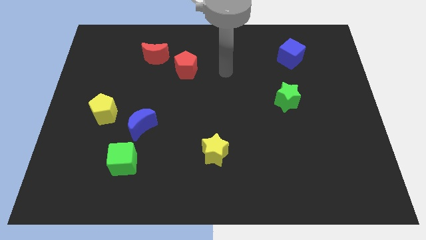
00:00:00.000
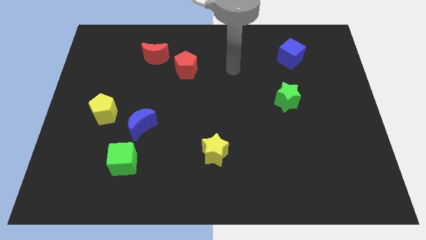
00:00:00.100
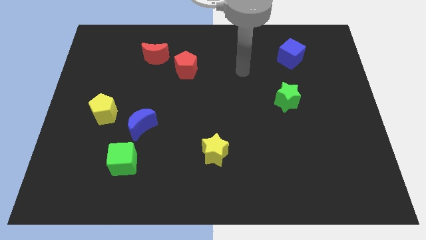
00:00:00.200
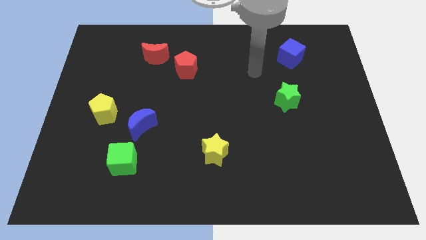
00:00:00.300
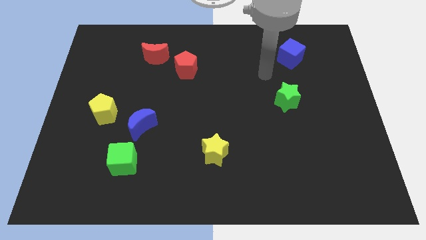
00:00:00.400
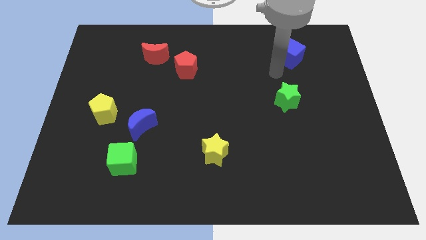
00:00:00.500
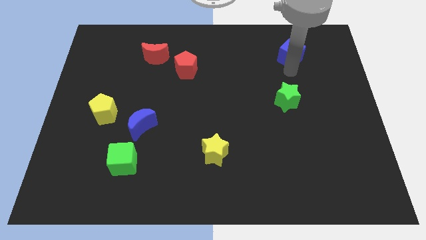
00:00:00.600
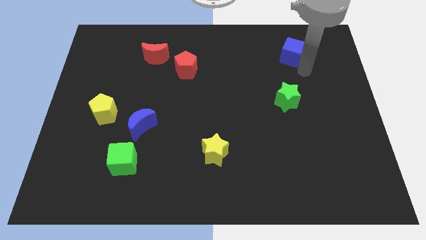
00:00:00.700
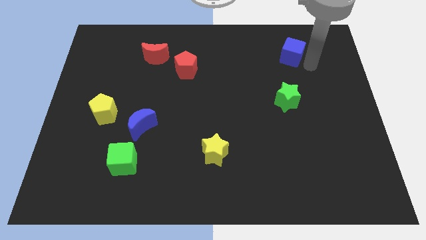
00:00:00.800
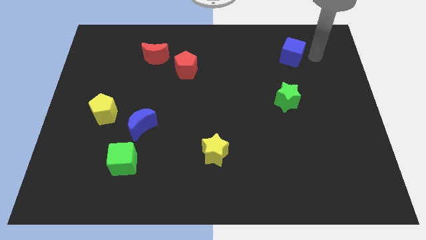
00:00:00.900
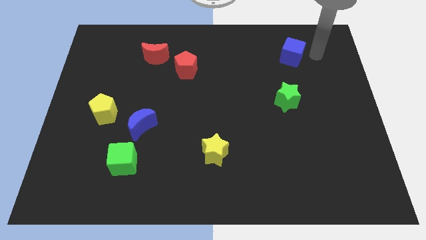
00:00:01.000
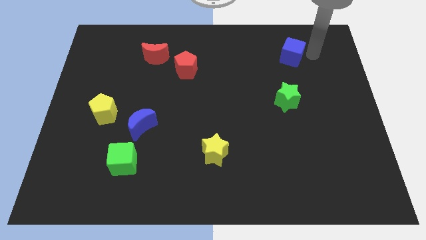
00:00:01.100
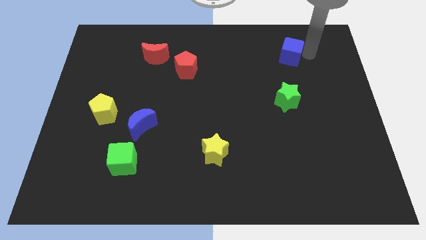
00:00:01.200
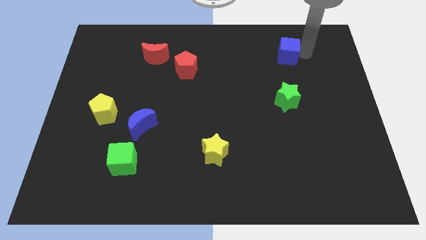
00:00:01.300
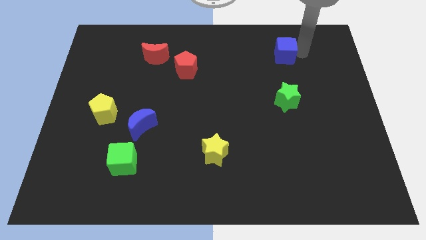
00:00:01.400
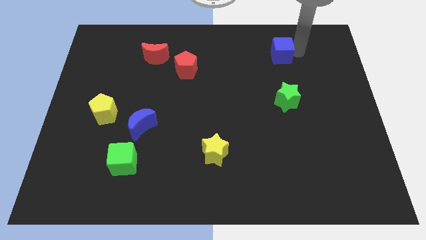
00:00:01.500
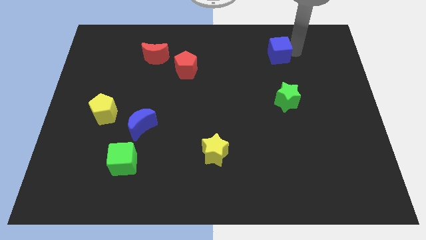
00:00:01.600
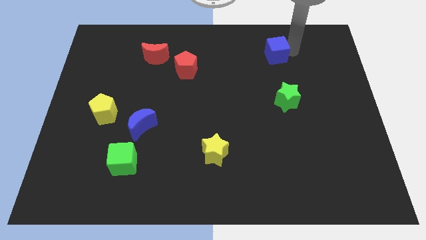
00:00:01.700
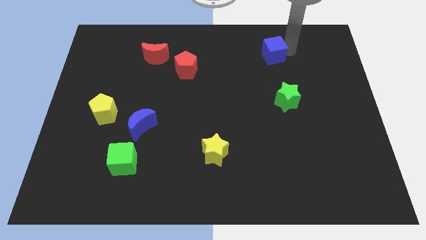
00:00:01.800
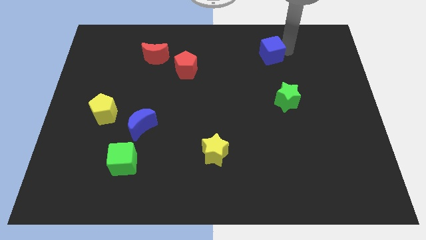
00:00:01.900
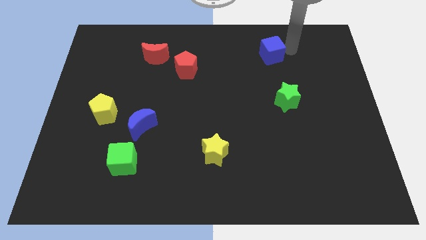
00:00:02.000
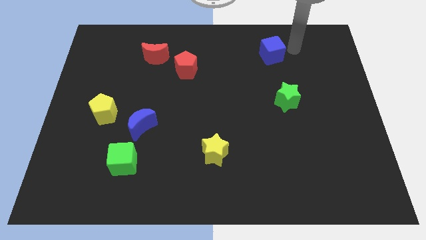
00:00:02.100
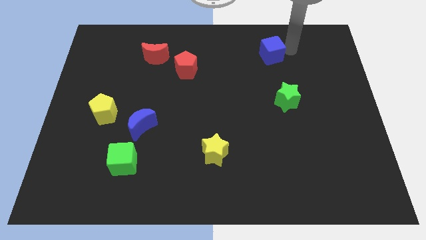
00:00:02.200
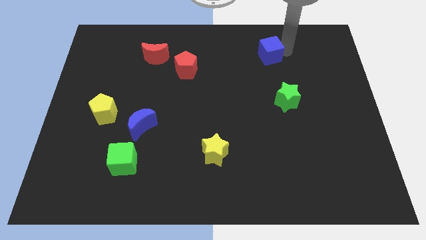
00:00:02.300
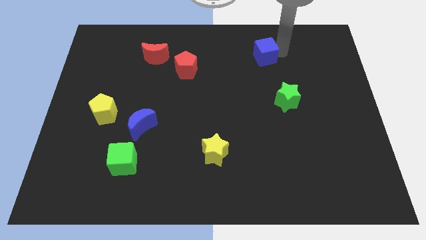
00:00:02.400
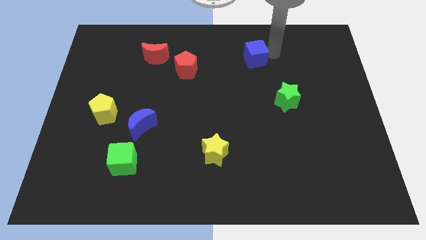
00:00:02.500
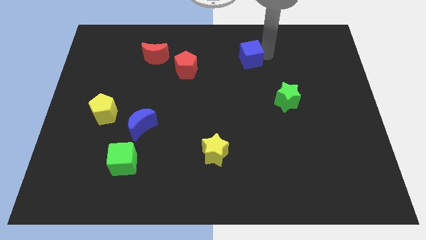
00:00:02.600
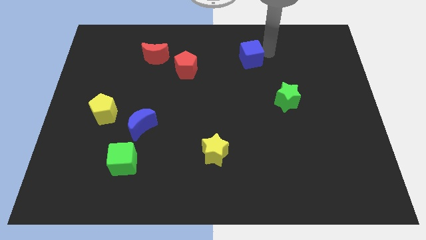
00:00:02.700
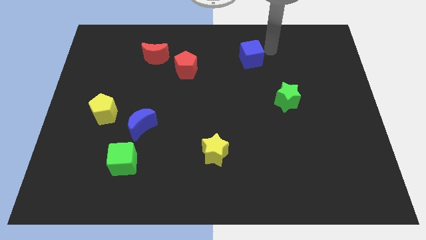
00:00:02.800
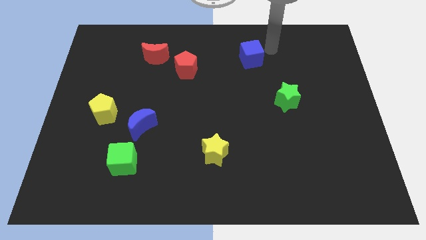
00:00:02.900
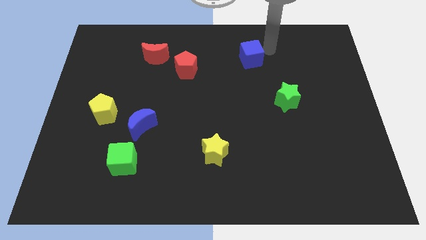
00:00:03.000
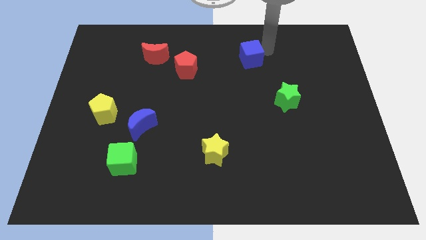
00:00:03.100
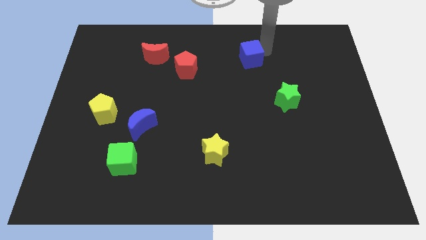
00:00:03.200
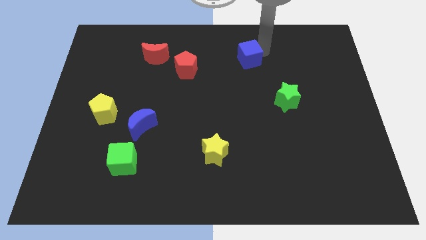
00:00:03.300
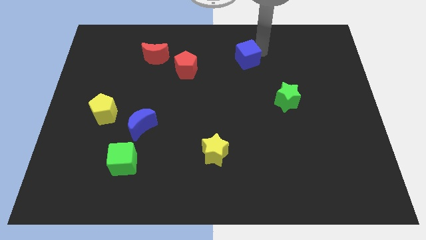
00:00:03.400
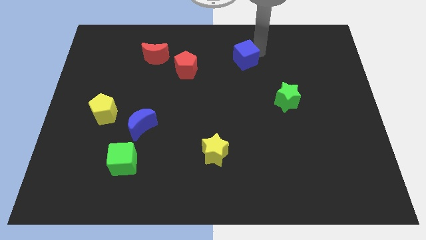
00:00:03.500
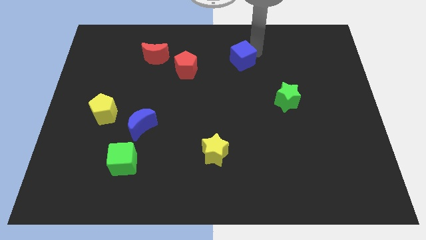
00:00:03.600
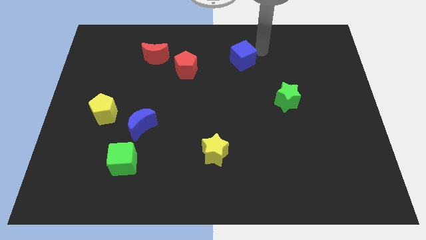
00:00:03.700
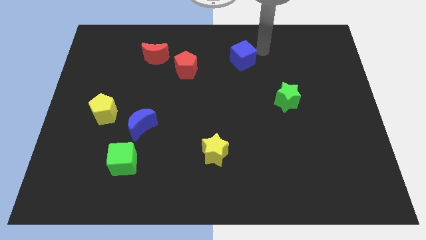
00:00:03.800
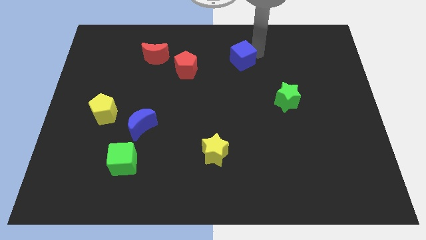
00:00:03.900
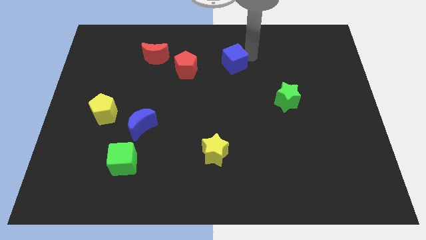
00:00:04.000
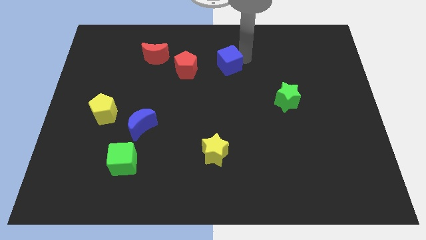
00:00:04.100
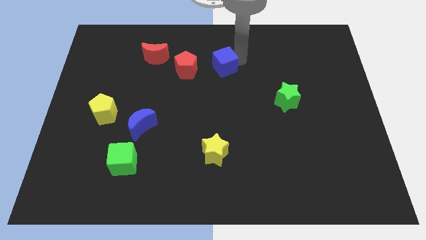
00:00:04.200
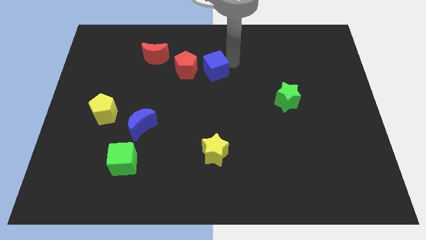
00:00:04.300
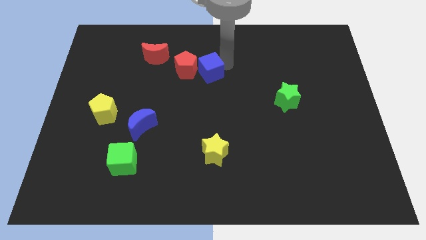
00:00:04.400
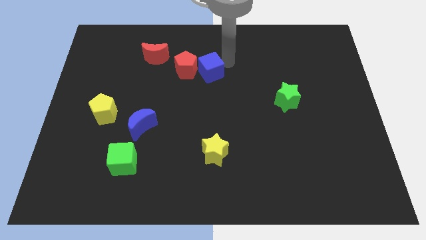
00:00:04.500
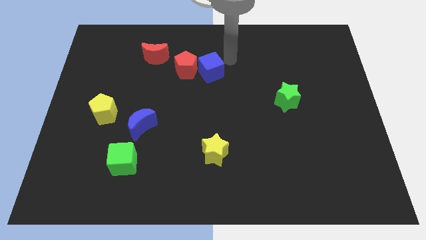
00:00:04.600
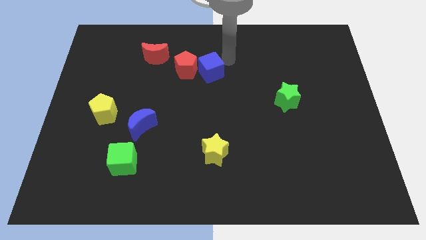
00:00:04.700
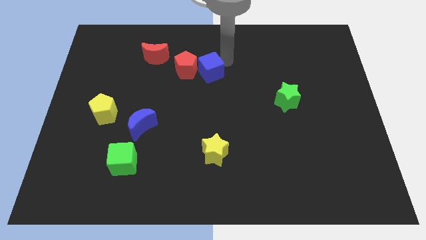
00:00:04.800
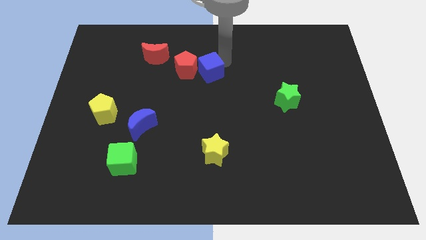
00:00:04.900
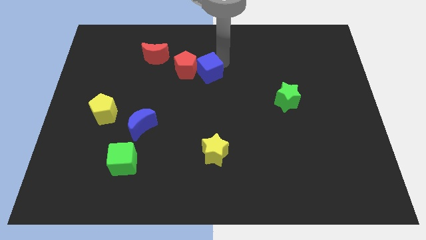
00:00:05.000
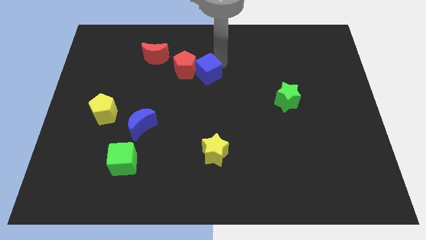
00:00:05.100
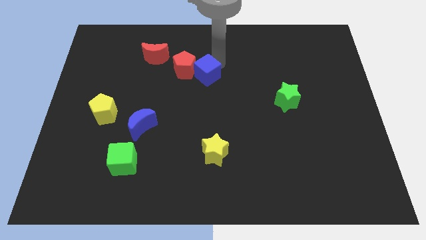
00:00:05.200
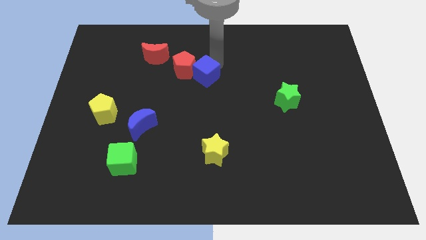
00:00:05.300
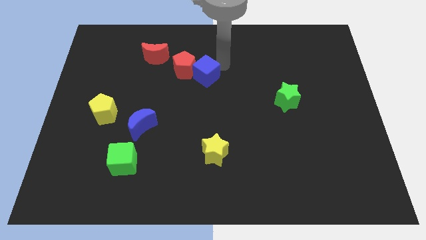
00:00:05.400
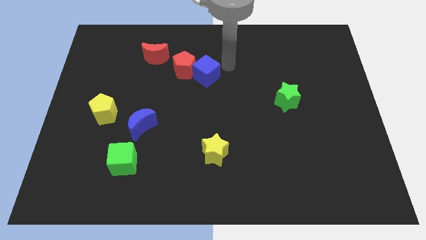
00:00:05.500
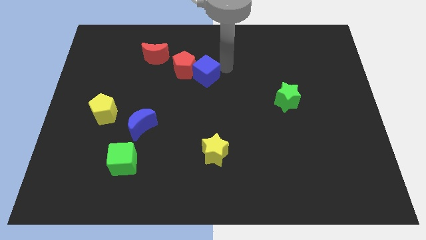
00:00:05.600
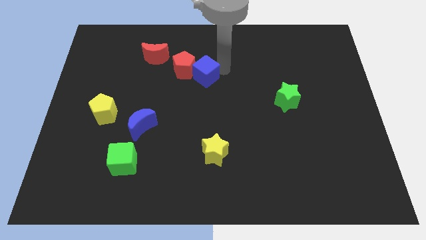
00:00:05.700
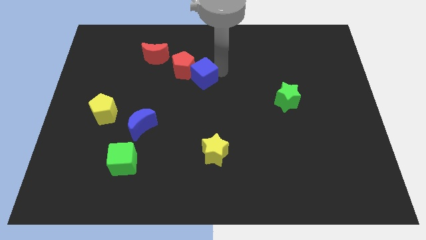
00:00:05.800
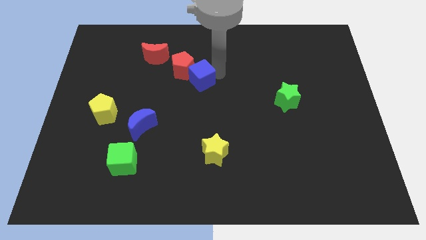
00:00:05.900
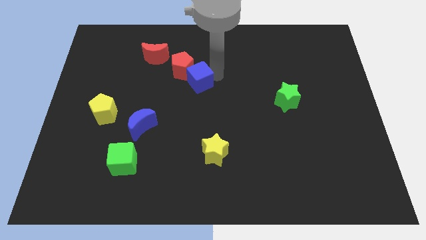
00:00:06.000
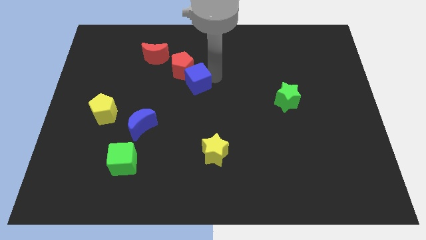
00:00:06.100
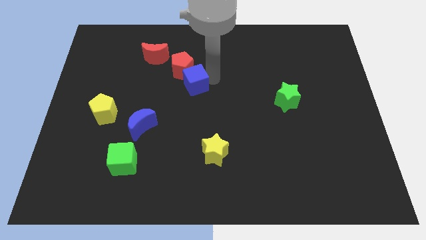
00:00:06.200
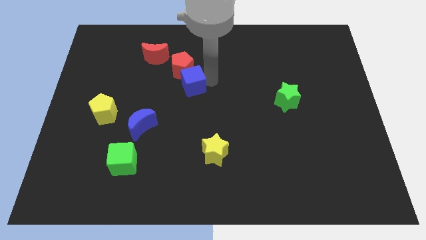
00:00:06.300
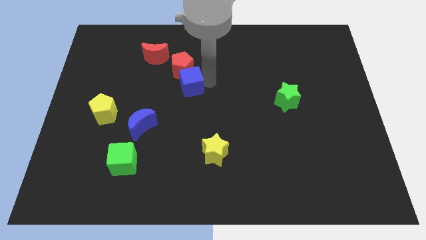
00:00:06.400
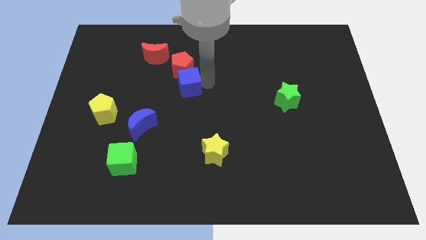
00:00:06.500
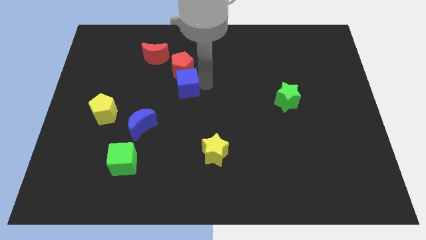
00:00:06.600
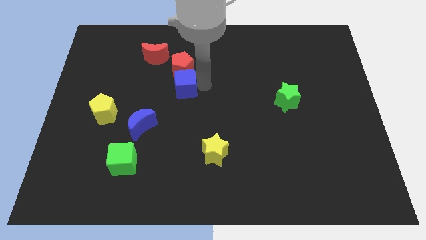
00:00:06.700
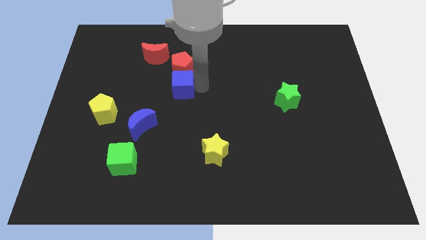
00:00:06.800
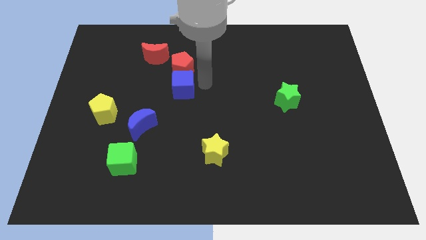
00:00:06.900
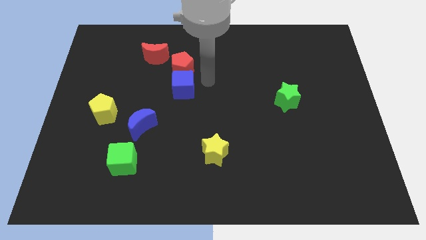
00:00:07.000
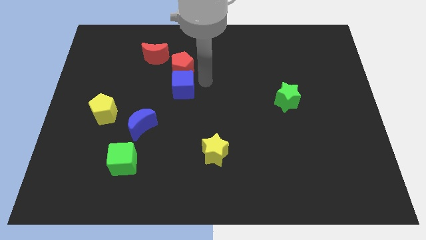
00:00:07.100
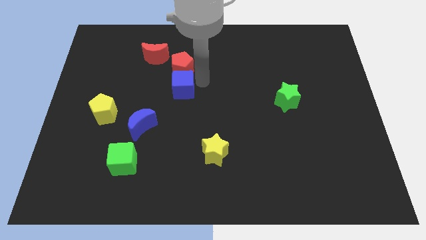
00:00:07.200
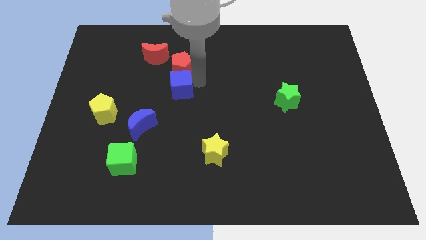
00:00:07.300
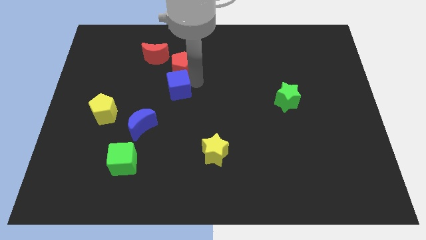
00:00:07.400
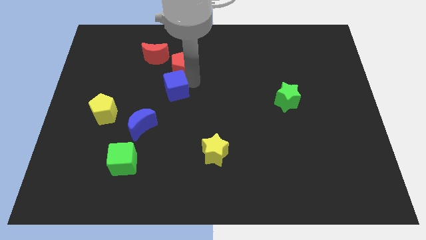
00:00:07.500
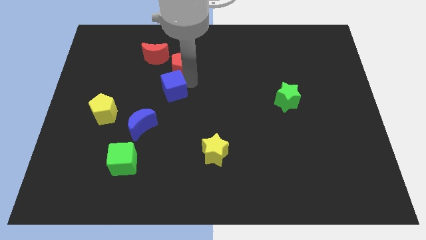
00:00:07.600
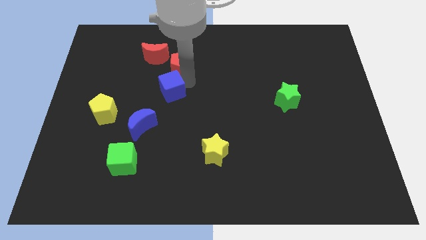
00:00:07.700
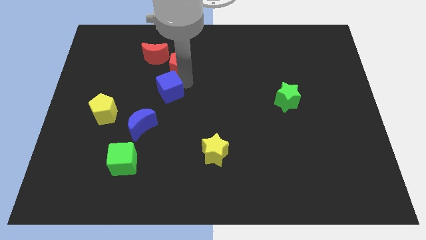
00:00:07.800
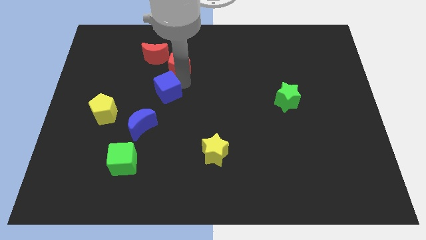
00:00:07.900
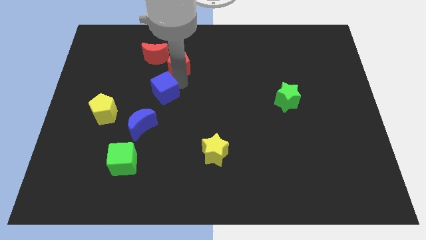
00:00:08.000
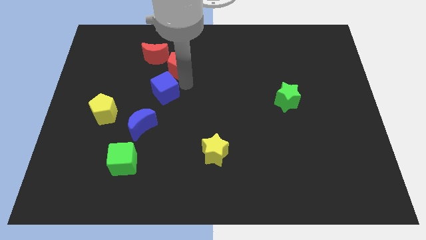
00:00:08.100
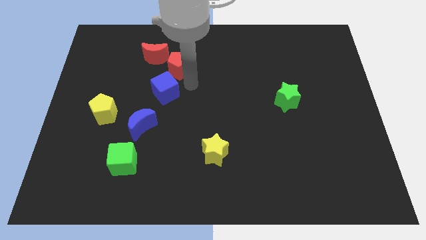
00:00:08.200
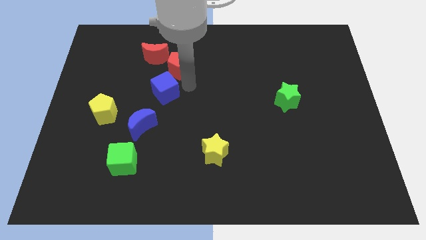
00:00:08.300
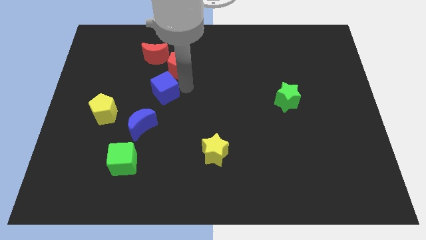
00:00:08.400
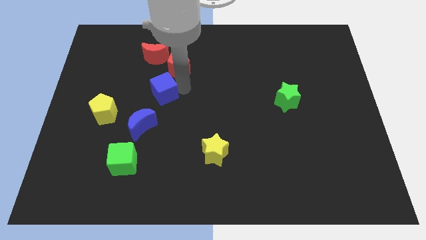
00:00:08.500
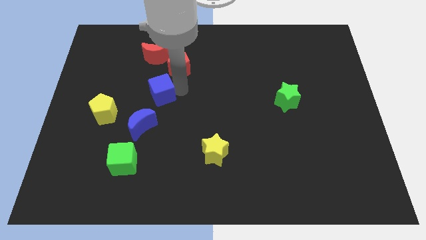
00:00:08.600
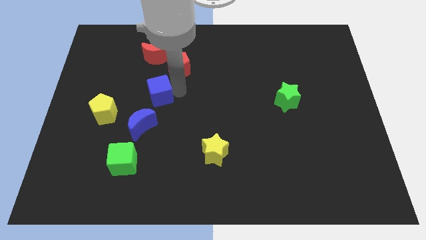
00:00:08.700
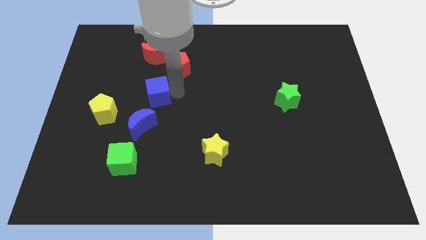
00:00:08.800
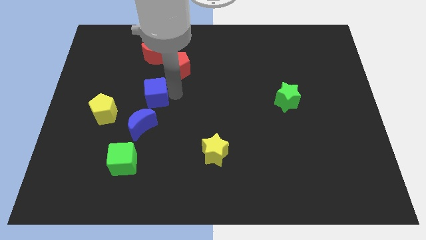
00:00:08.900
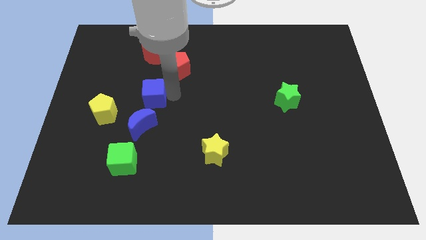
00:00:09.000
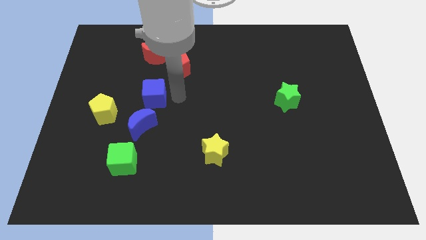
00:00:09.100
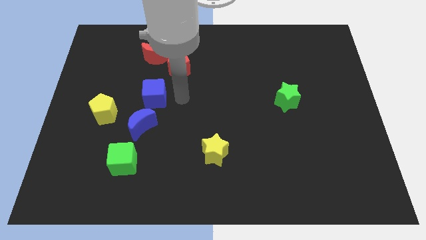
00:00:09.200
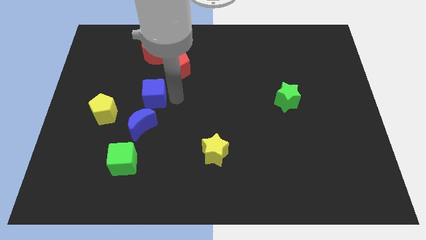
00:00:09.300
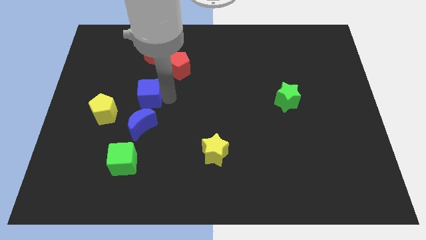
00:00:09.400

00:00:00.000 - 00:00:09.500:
put the blue cube to the top right side of the yellow pentagon
